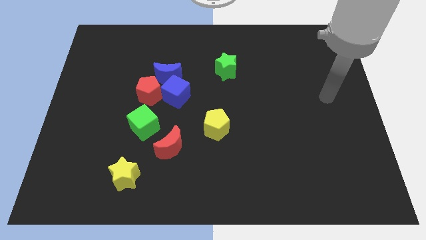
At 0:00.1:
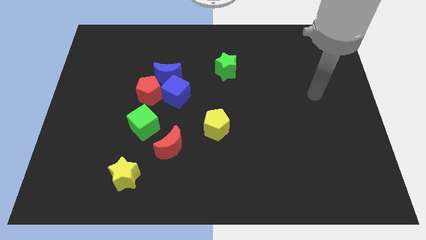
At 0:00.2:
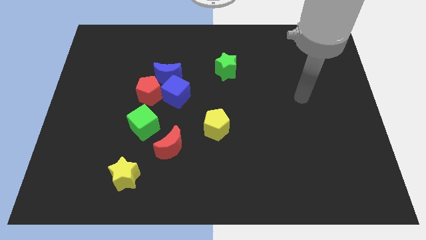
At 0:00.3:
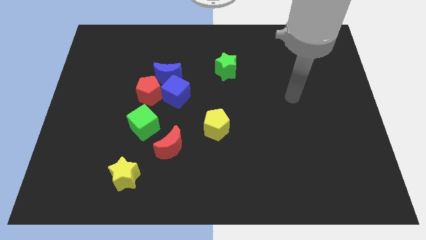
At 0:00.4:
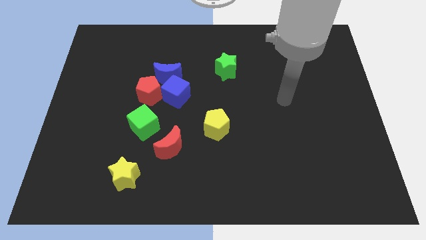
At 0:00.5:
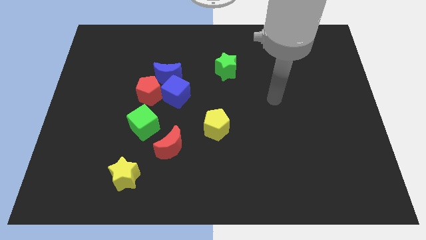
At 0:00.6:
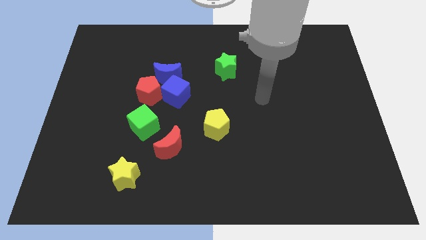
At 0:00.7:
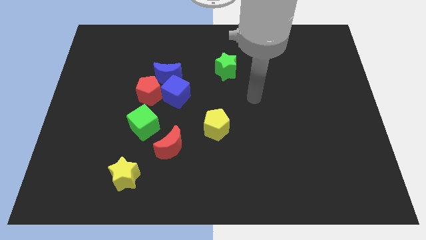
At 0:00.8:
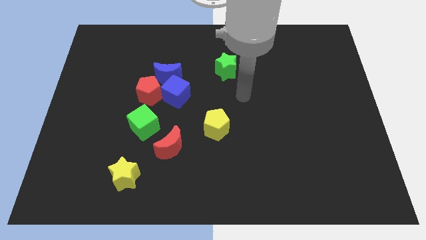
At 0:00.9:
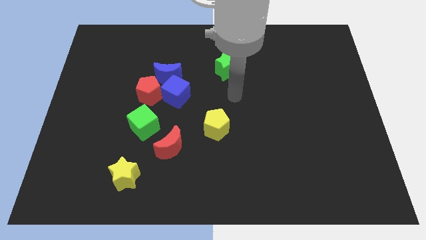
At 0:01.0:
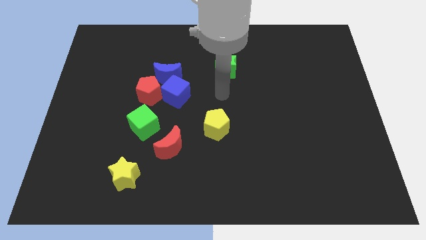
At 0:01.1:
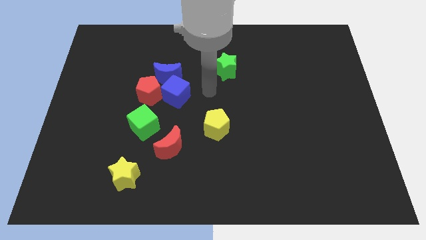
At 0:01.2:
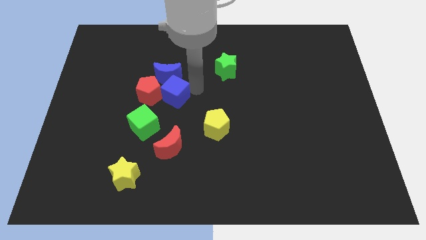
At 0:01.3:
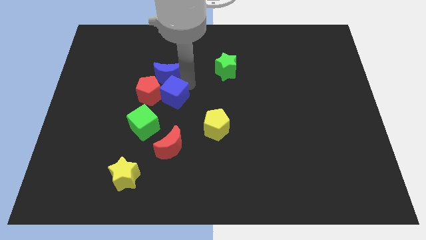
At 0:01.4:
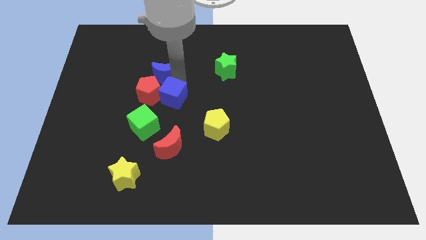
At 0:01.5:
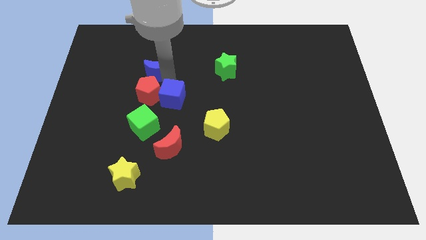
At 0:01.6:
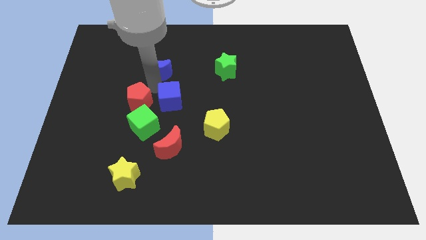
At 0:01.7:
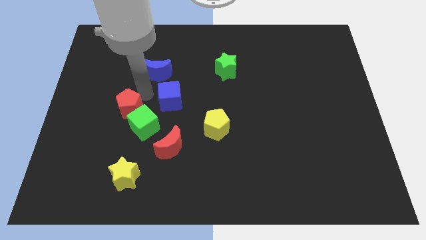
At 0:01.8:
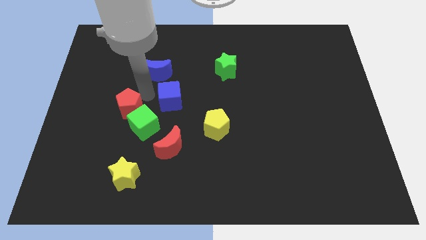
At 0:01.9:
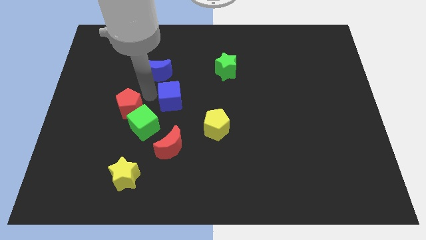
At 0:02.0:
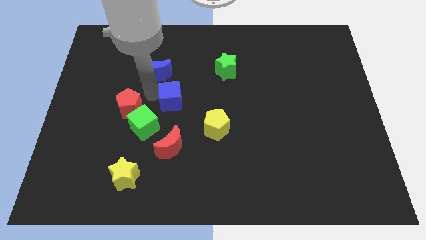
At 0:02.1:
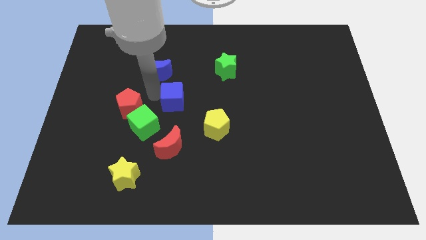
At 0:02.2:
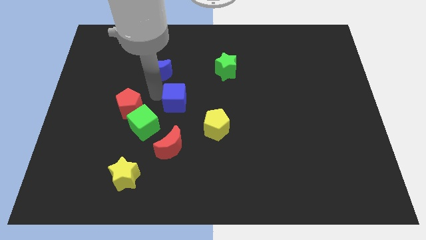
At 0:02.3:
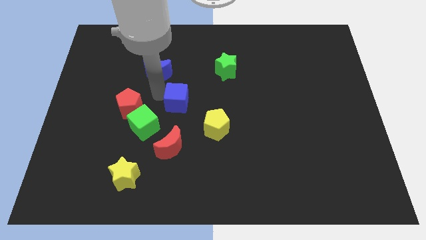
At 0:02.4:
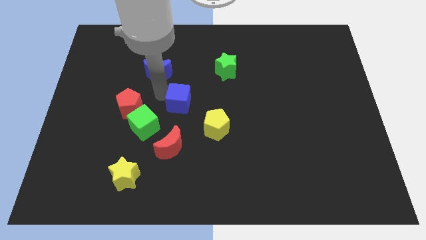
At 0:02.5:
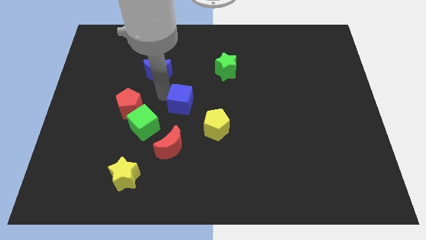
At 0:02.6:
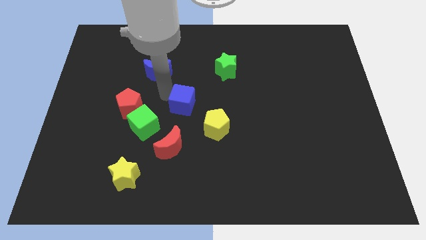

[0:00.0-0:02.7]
separate the blue cube from the blue moon and red pentagon

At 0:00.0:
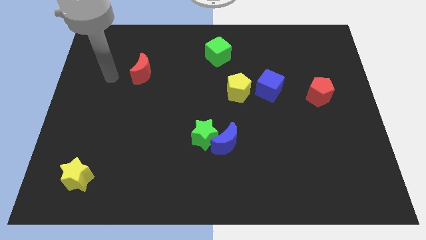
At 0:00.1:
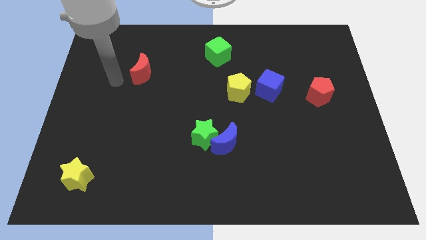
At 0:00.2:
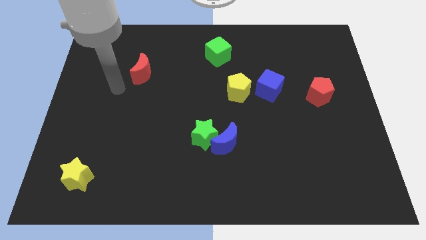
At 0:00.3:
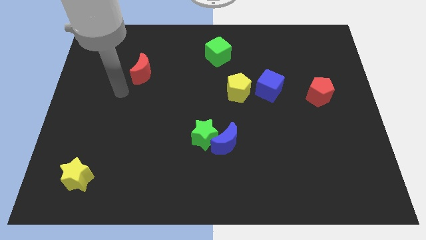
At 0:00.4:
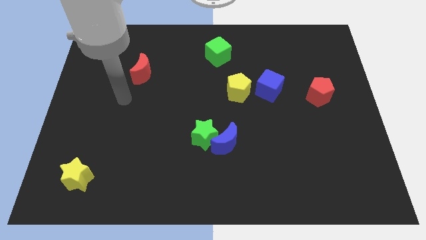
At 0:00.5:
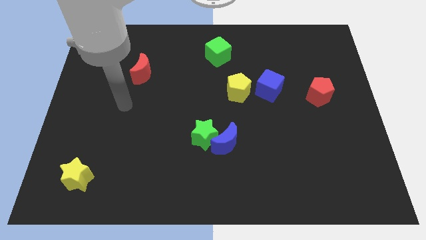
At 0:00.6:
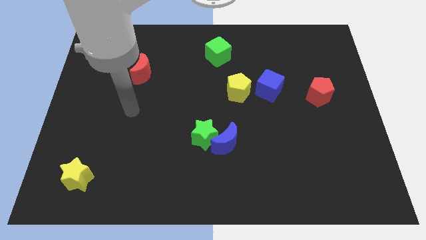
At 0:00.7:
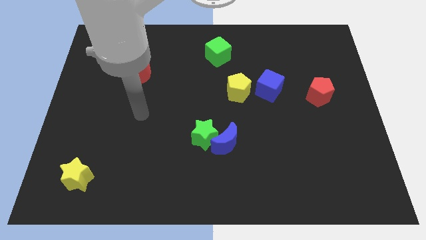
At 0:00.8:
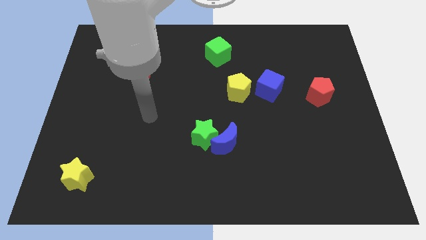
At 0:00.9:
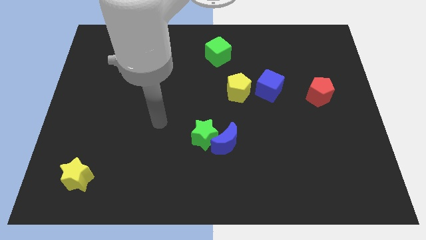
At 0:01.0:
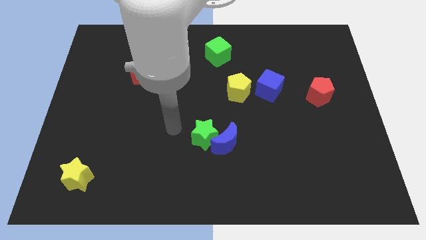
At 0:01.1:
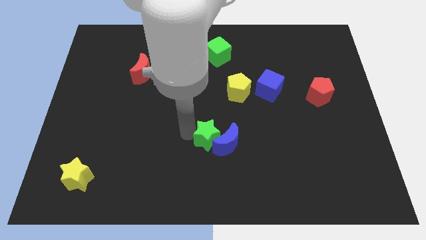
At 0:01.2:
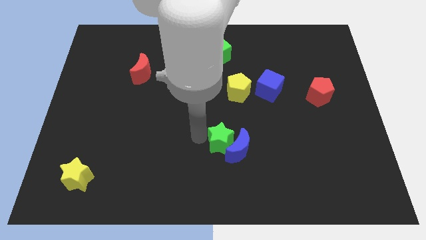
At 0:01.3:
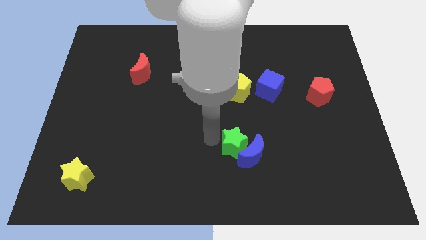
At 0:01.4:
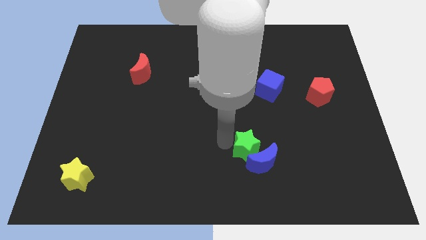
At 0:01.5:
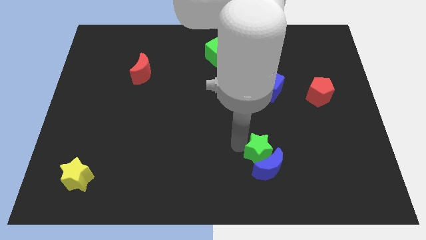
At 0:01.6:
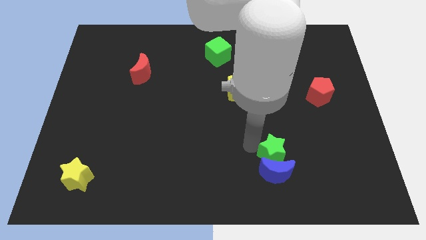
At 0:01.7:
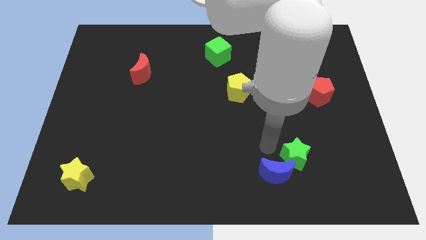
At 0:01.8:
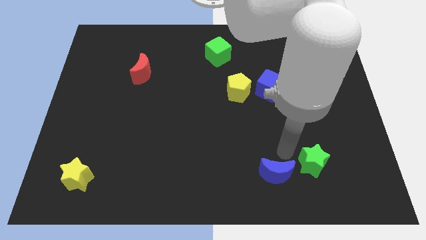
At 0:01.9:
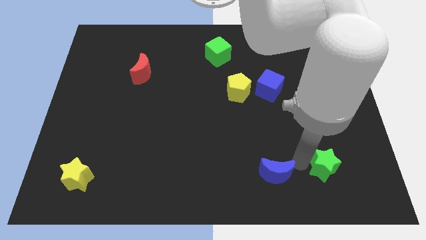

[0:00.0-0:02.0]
move the blue moon away from the green star

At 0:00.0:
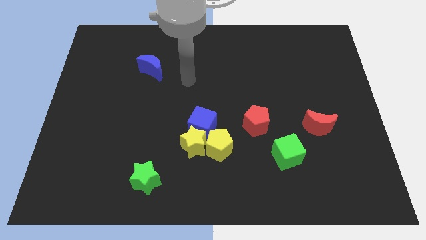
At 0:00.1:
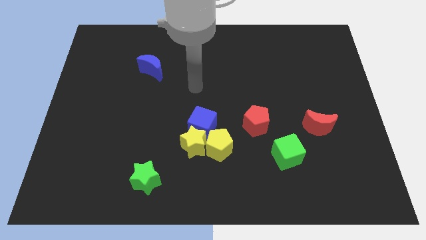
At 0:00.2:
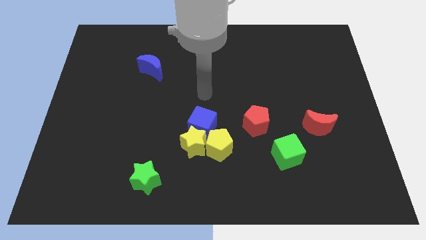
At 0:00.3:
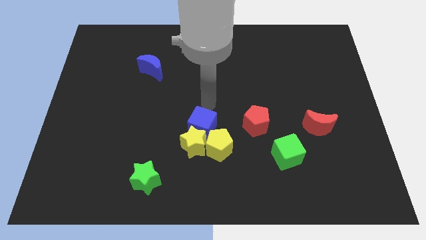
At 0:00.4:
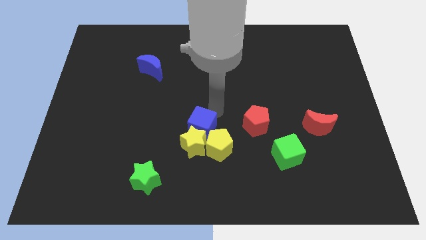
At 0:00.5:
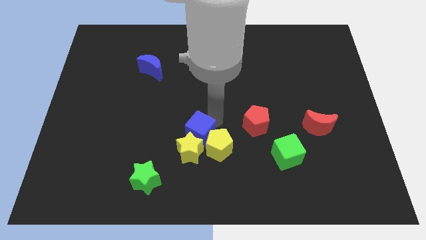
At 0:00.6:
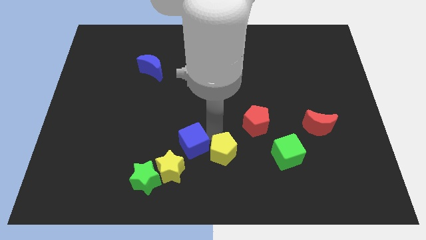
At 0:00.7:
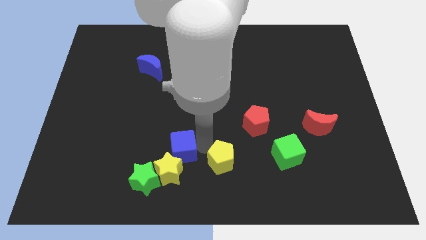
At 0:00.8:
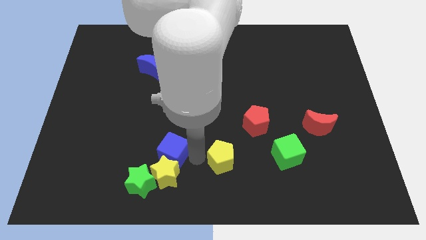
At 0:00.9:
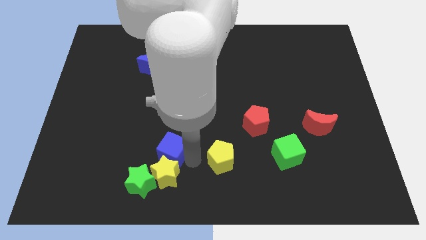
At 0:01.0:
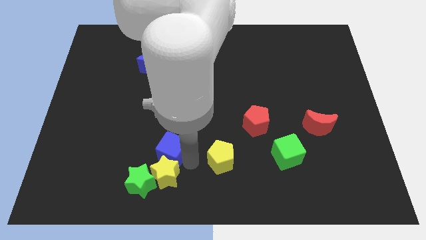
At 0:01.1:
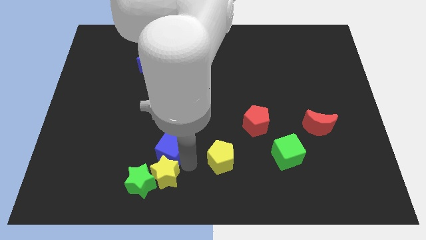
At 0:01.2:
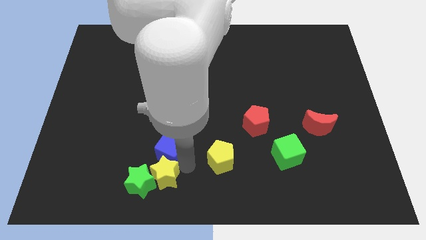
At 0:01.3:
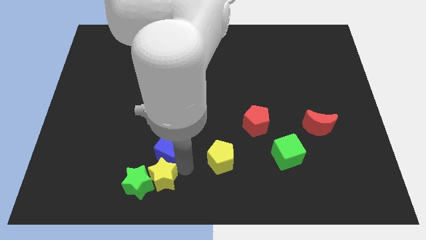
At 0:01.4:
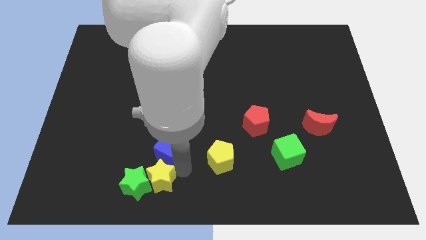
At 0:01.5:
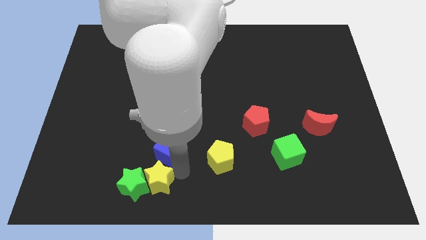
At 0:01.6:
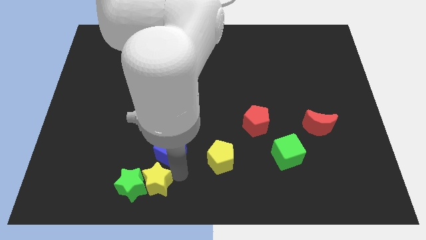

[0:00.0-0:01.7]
separate the yellow star from the blue cube and yellow pentagon

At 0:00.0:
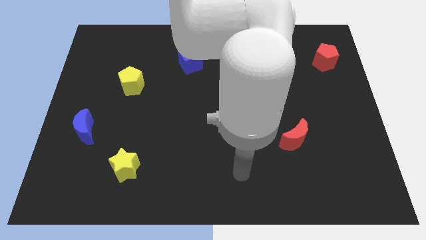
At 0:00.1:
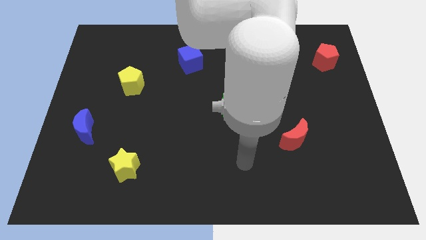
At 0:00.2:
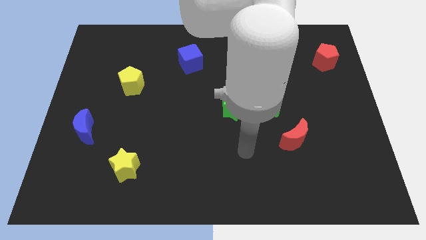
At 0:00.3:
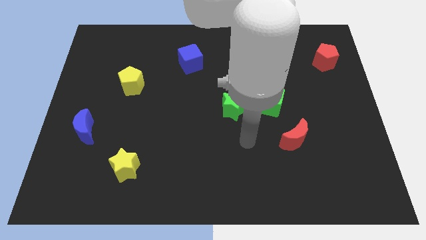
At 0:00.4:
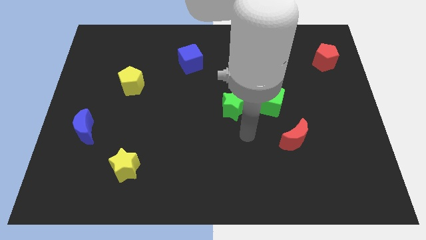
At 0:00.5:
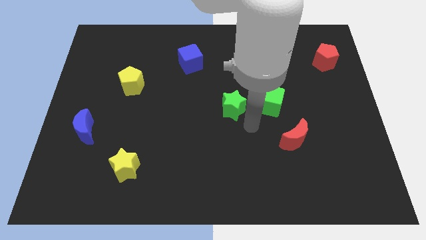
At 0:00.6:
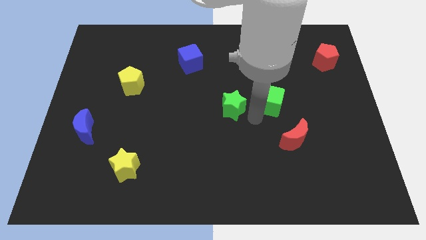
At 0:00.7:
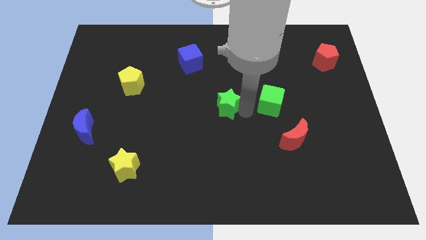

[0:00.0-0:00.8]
pull the green cube apart from the green star

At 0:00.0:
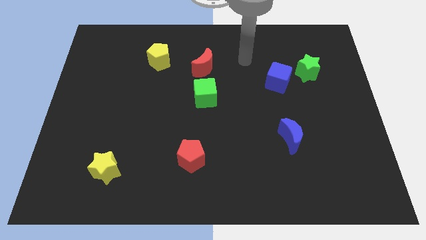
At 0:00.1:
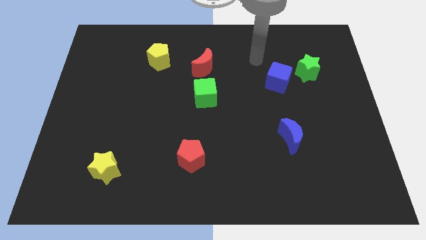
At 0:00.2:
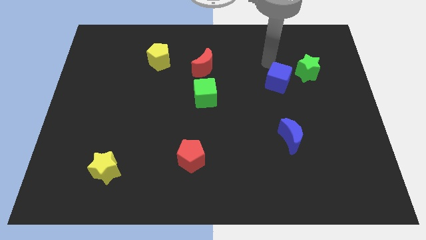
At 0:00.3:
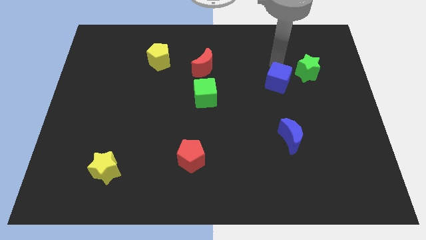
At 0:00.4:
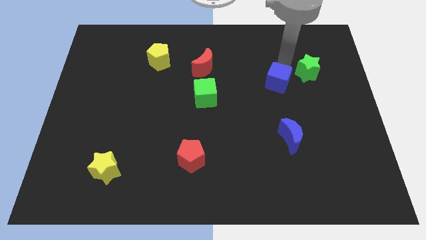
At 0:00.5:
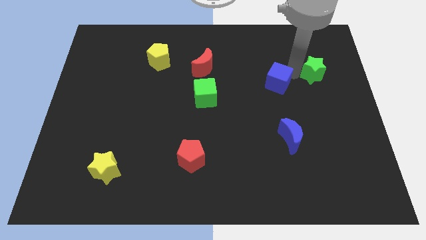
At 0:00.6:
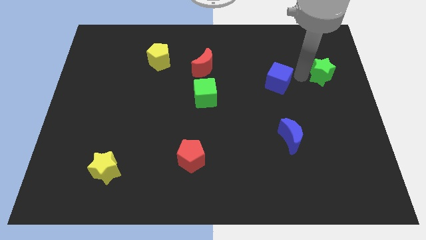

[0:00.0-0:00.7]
move the blue cube away from the green star

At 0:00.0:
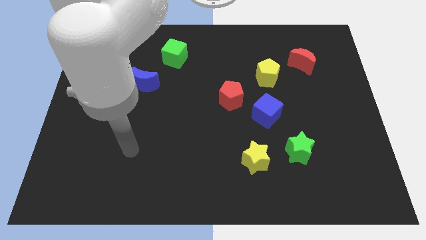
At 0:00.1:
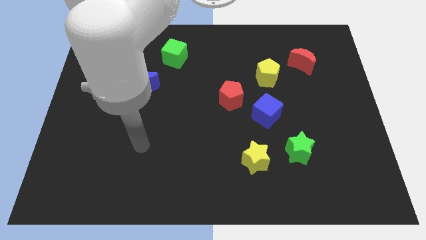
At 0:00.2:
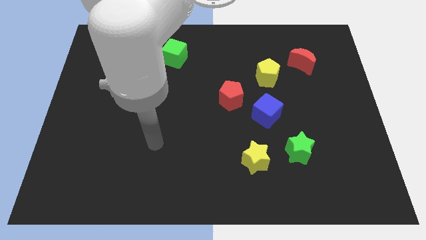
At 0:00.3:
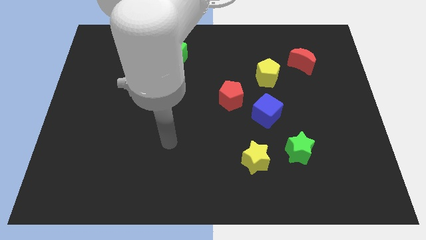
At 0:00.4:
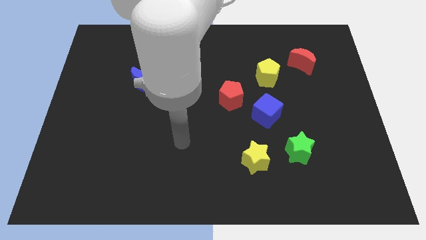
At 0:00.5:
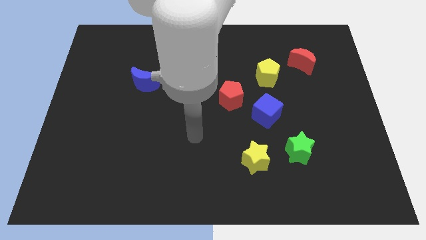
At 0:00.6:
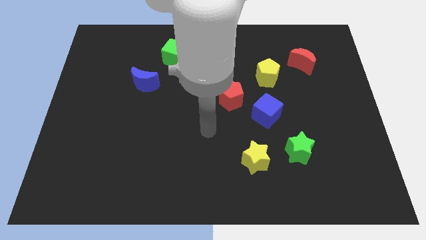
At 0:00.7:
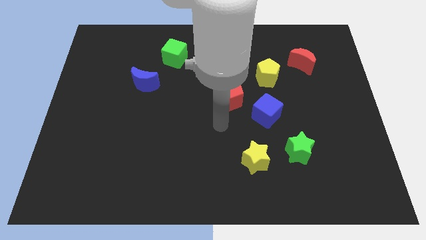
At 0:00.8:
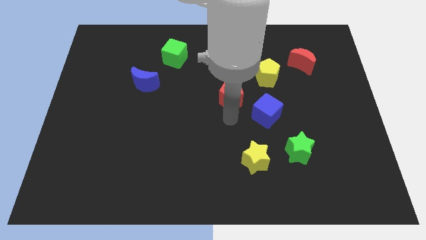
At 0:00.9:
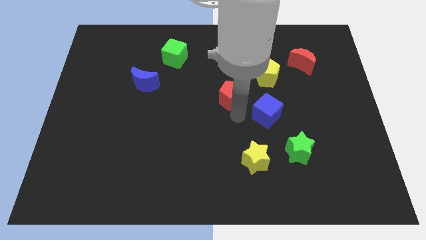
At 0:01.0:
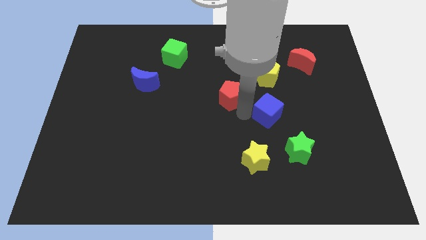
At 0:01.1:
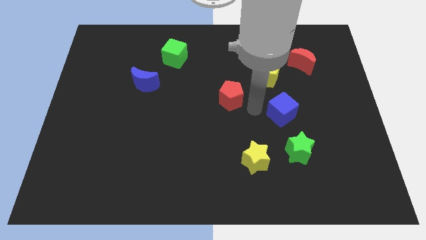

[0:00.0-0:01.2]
move the red pentagon away from the blue cube

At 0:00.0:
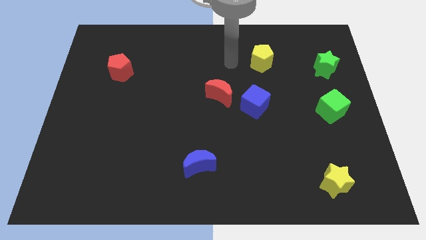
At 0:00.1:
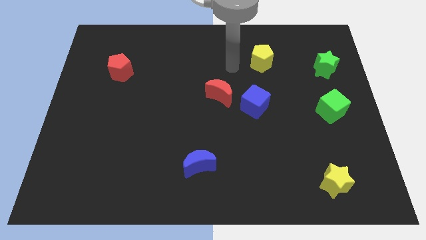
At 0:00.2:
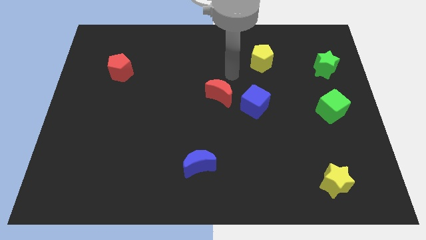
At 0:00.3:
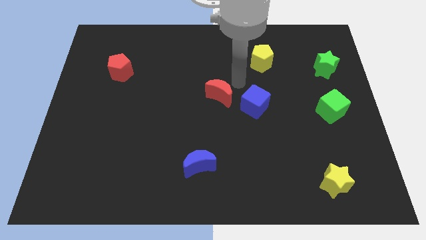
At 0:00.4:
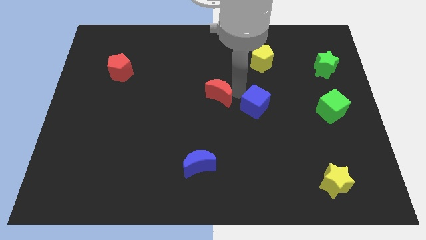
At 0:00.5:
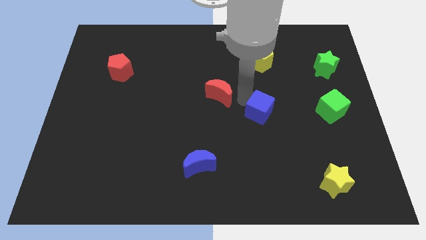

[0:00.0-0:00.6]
pull the red moon apart from the blue cube
